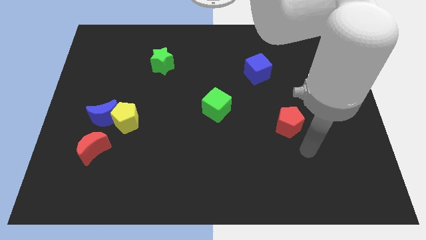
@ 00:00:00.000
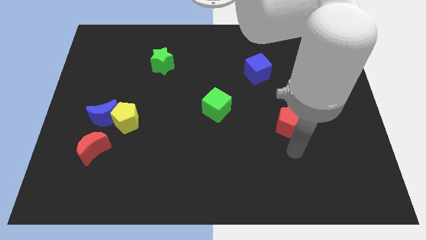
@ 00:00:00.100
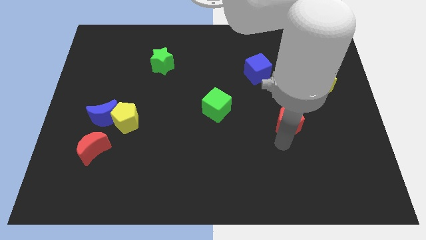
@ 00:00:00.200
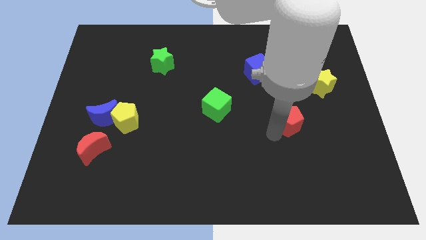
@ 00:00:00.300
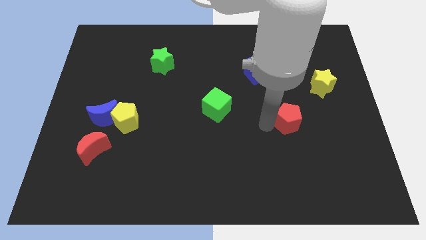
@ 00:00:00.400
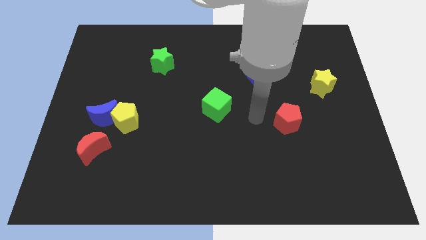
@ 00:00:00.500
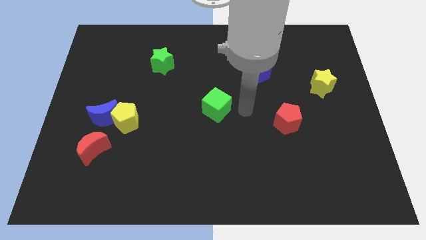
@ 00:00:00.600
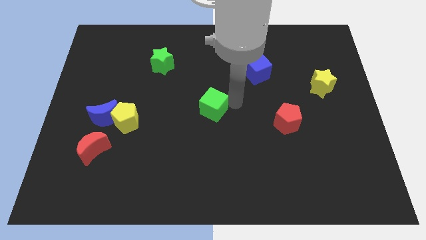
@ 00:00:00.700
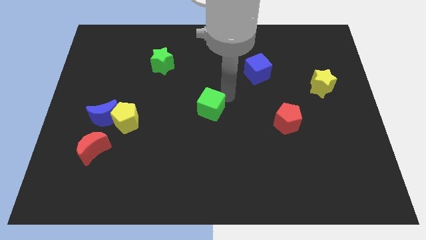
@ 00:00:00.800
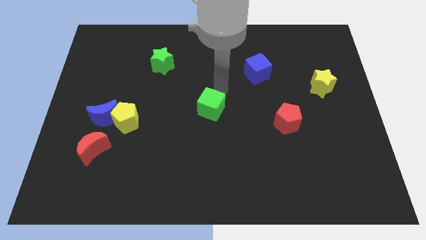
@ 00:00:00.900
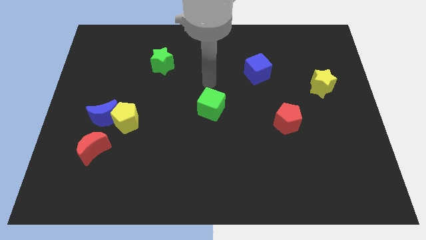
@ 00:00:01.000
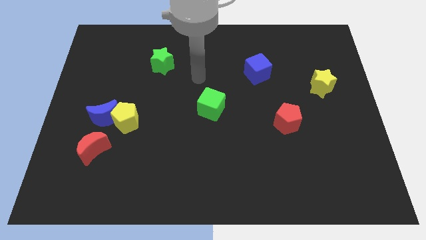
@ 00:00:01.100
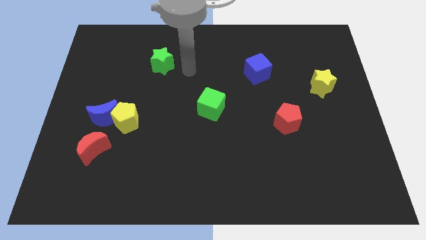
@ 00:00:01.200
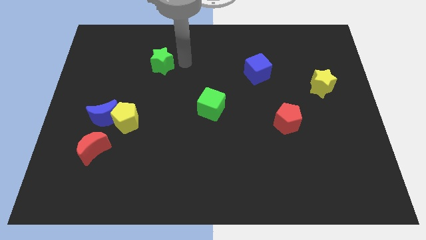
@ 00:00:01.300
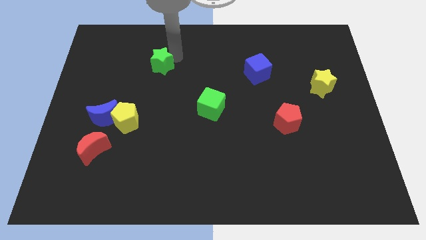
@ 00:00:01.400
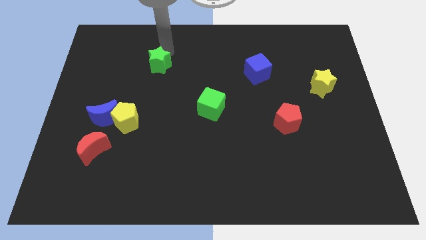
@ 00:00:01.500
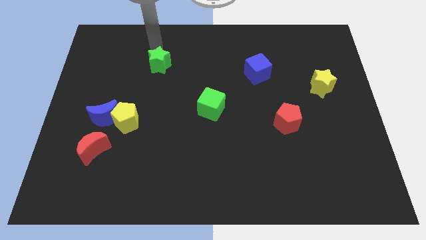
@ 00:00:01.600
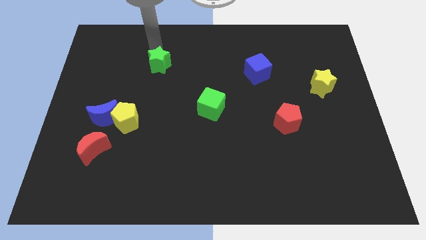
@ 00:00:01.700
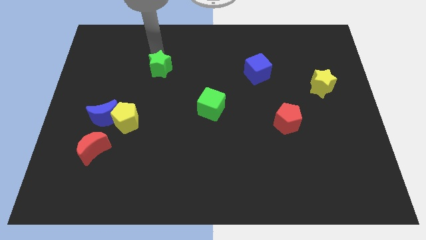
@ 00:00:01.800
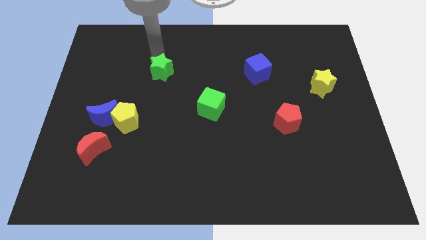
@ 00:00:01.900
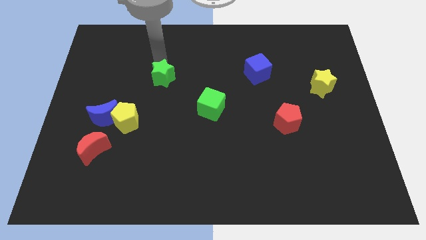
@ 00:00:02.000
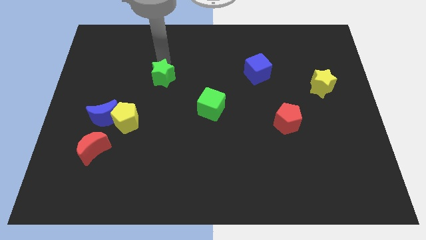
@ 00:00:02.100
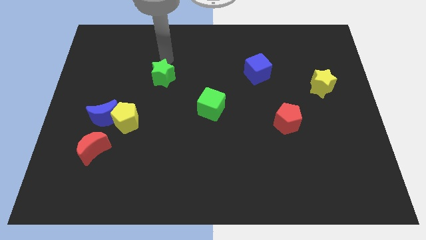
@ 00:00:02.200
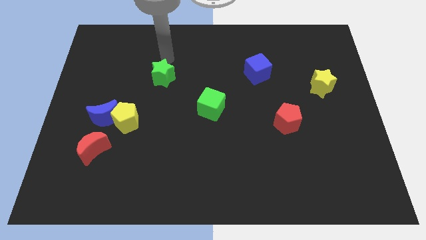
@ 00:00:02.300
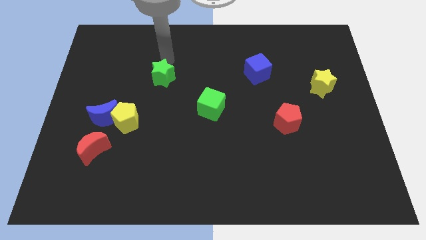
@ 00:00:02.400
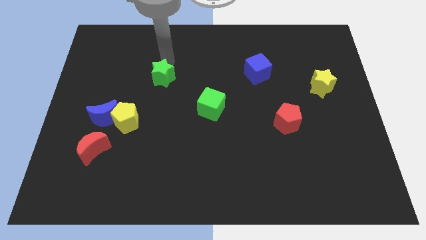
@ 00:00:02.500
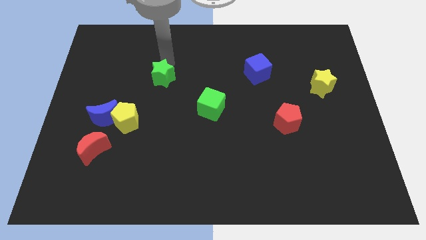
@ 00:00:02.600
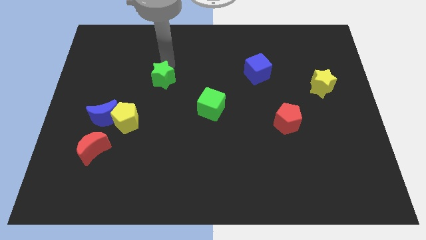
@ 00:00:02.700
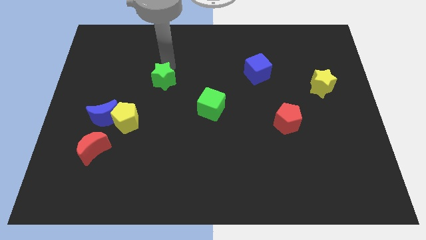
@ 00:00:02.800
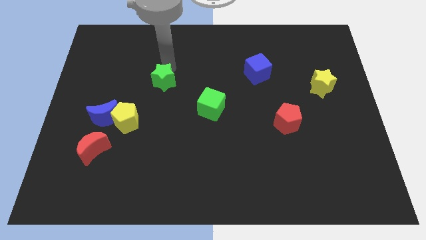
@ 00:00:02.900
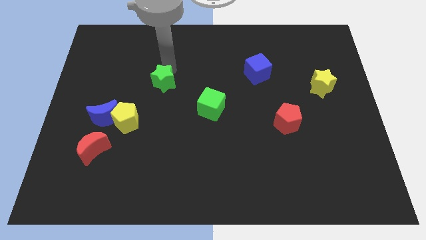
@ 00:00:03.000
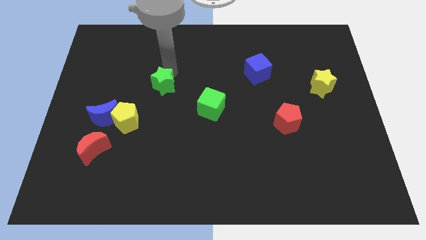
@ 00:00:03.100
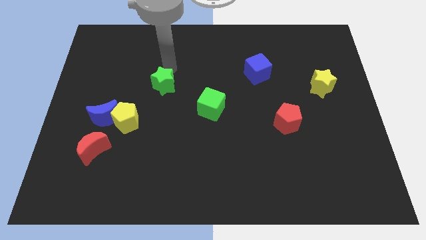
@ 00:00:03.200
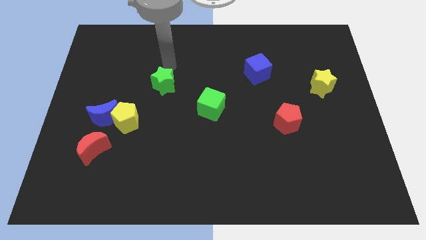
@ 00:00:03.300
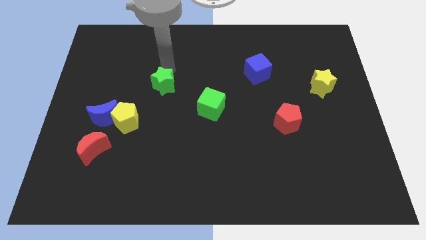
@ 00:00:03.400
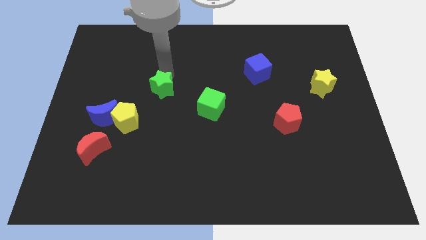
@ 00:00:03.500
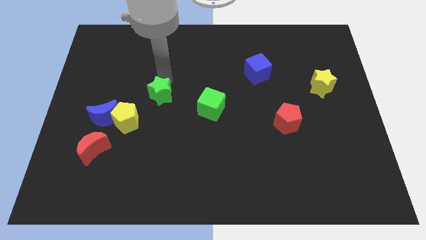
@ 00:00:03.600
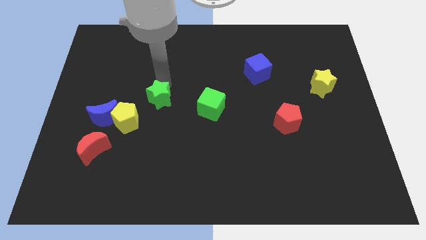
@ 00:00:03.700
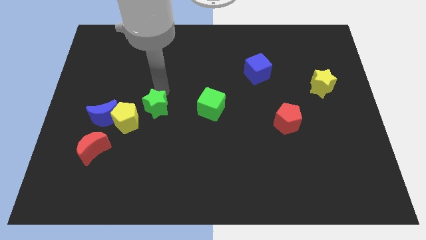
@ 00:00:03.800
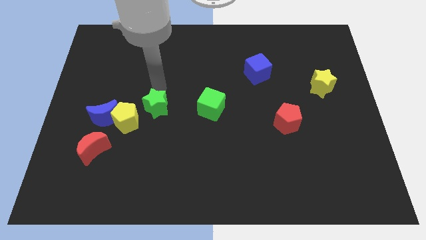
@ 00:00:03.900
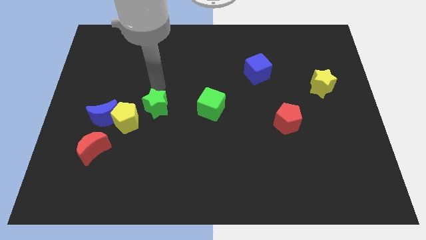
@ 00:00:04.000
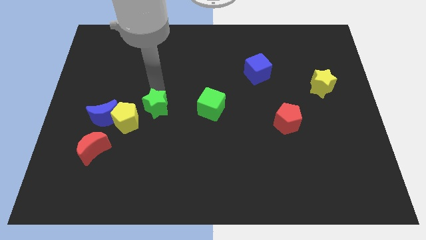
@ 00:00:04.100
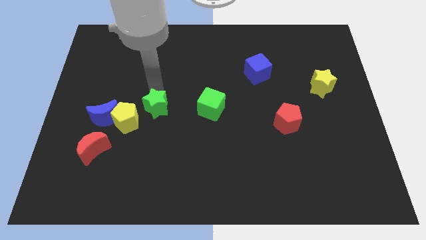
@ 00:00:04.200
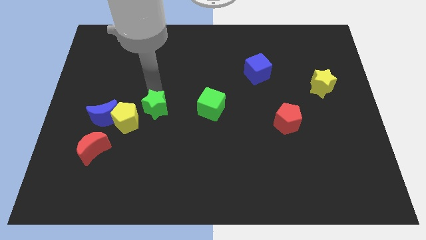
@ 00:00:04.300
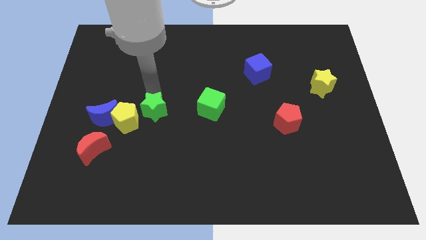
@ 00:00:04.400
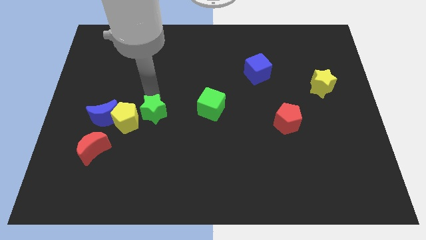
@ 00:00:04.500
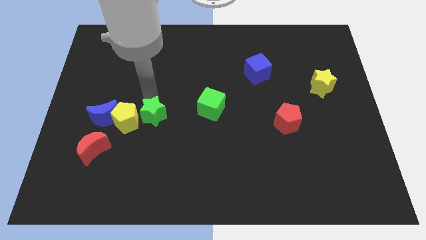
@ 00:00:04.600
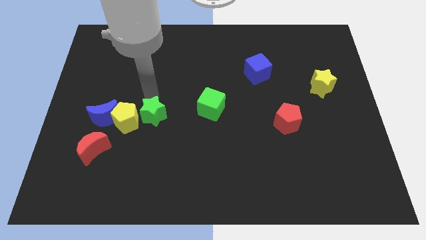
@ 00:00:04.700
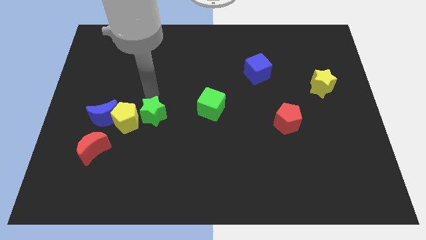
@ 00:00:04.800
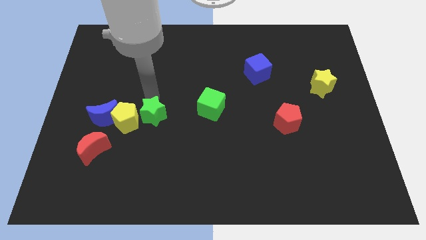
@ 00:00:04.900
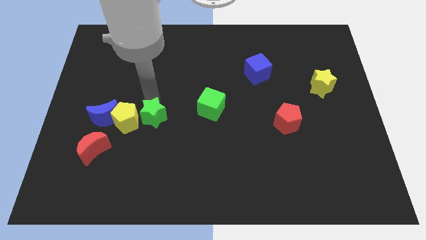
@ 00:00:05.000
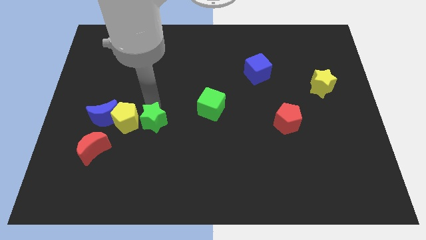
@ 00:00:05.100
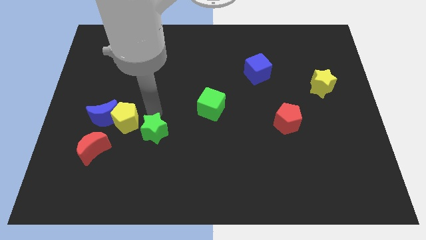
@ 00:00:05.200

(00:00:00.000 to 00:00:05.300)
slide the green star down

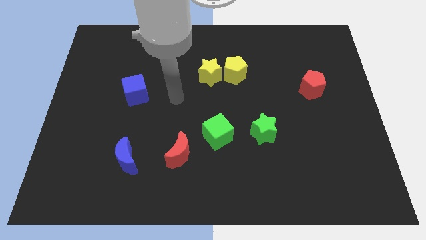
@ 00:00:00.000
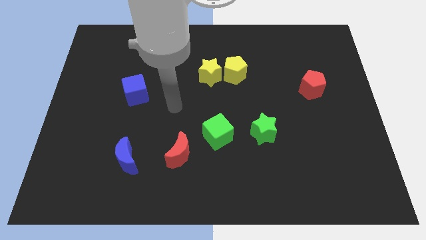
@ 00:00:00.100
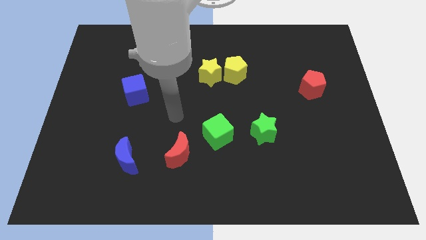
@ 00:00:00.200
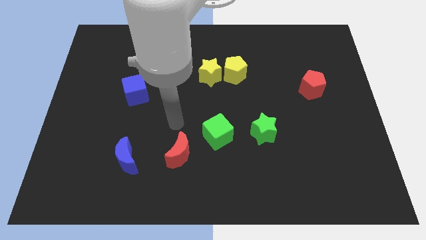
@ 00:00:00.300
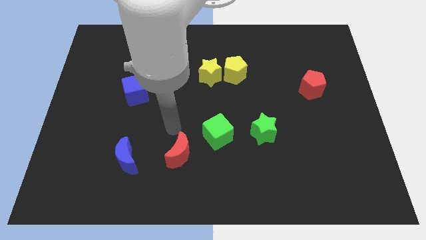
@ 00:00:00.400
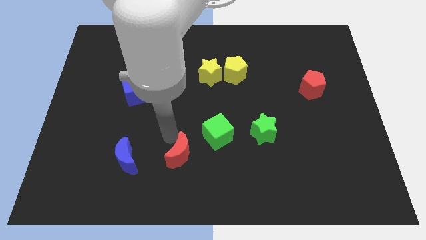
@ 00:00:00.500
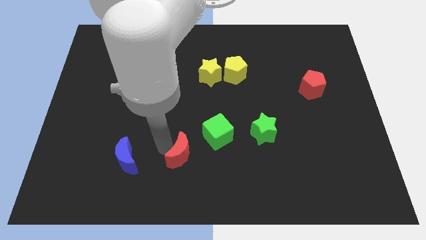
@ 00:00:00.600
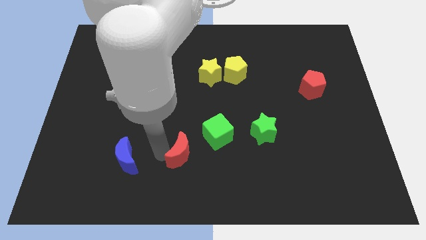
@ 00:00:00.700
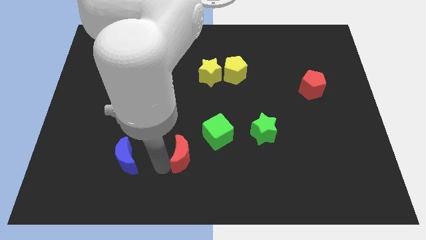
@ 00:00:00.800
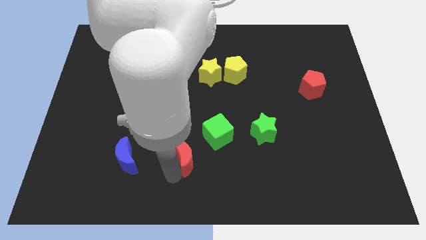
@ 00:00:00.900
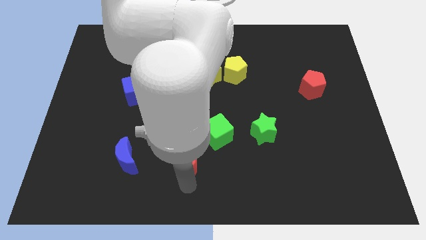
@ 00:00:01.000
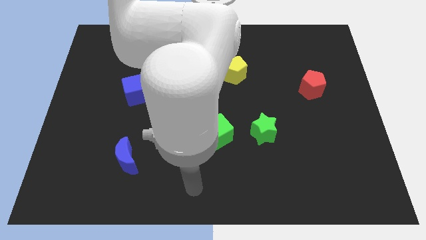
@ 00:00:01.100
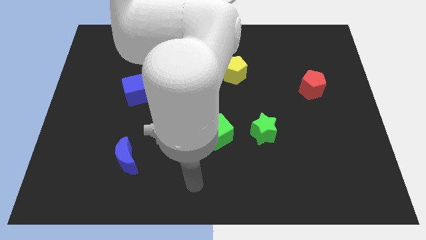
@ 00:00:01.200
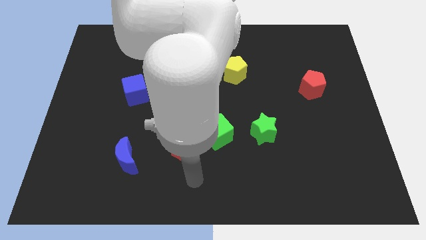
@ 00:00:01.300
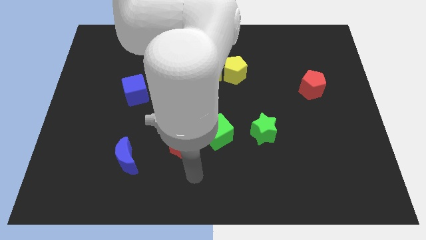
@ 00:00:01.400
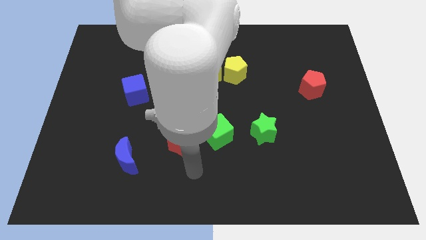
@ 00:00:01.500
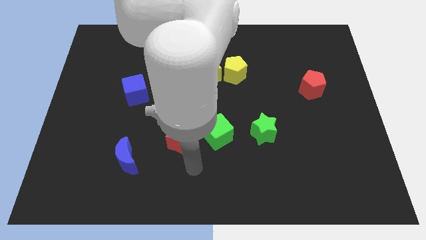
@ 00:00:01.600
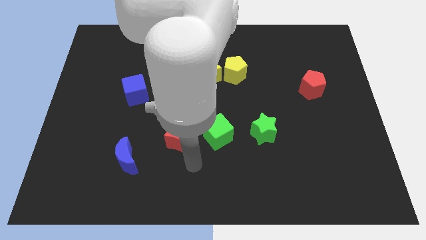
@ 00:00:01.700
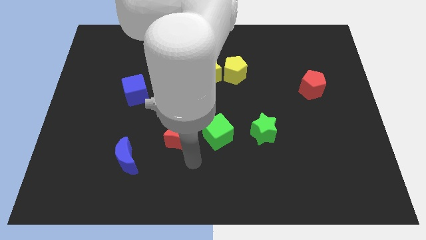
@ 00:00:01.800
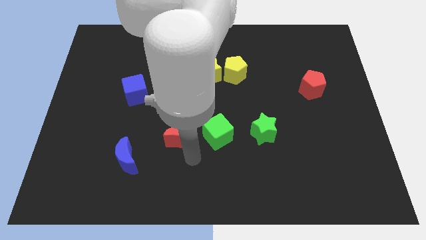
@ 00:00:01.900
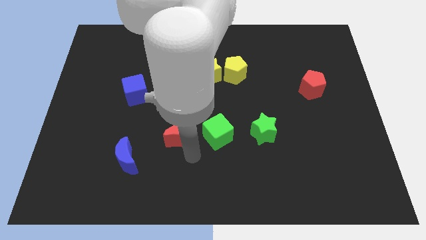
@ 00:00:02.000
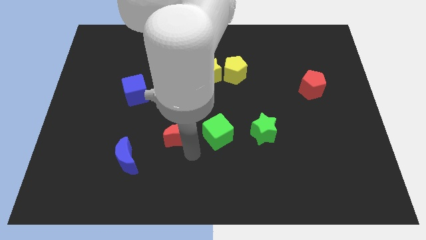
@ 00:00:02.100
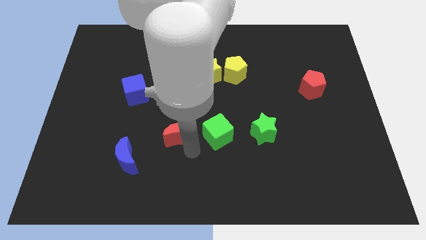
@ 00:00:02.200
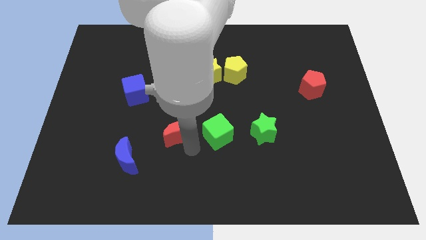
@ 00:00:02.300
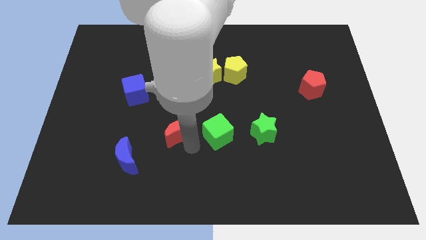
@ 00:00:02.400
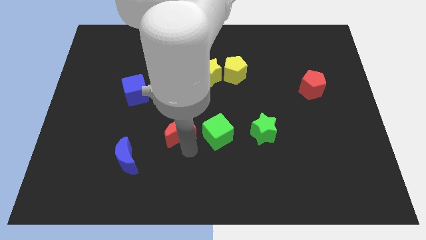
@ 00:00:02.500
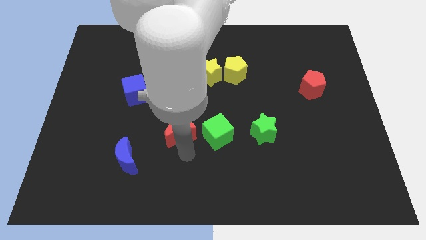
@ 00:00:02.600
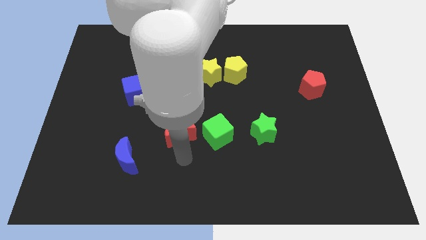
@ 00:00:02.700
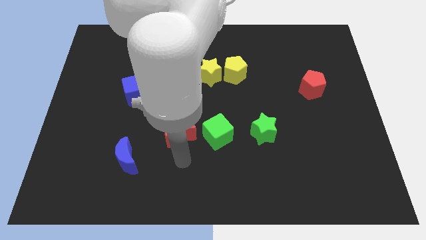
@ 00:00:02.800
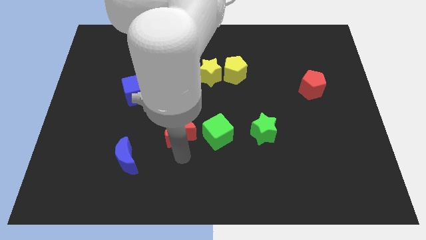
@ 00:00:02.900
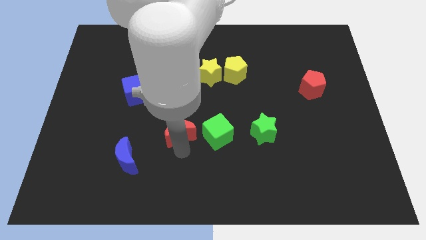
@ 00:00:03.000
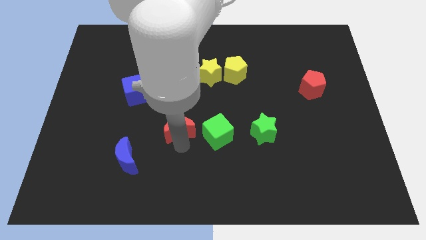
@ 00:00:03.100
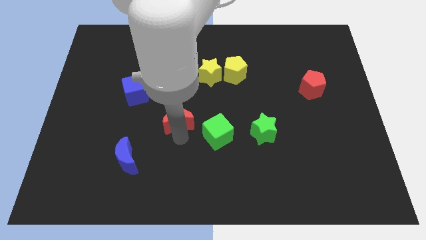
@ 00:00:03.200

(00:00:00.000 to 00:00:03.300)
push the red moon somewhat up
